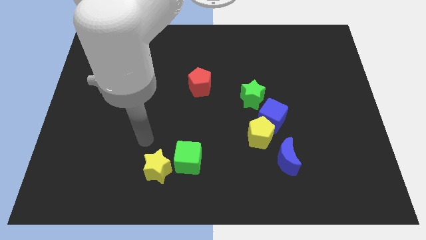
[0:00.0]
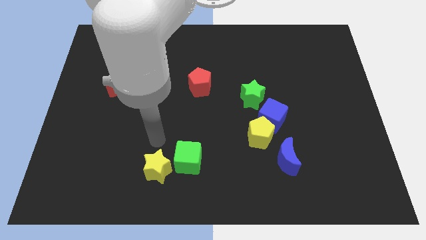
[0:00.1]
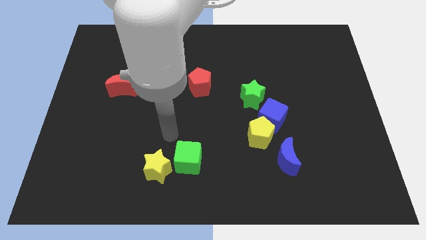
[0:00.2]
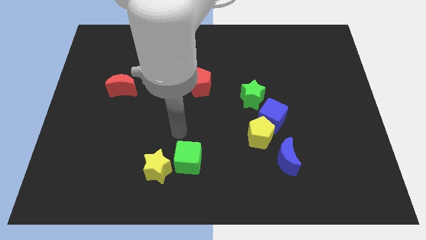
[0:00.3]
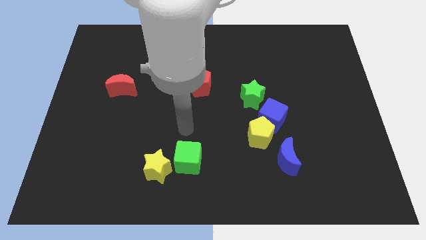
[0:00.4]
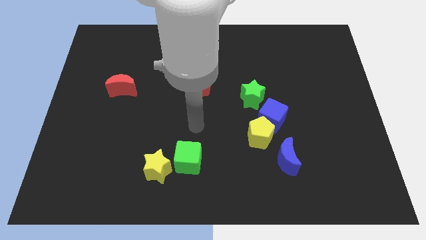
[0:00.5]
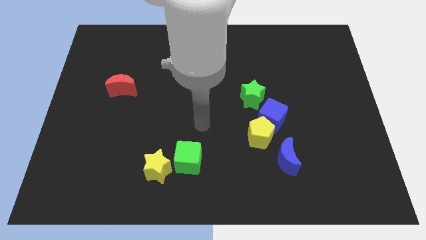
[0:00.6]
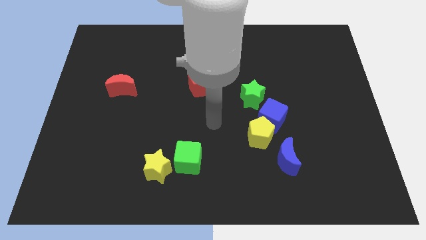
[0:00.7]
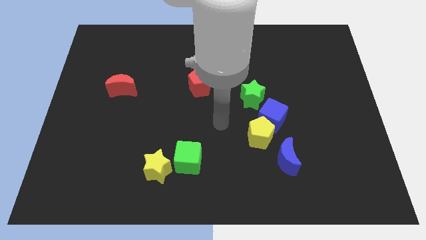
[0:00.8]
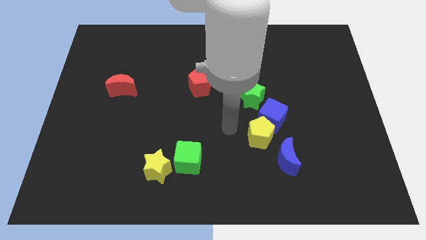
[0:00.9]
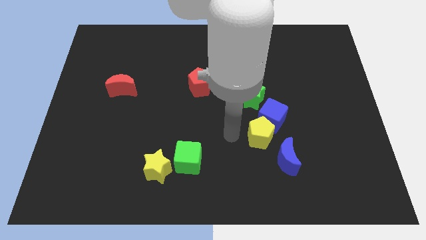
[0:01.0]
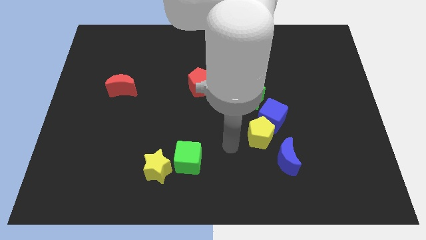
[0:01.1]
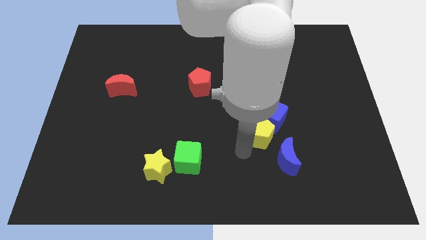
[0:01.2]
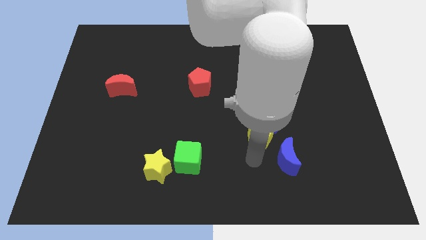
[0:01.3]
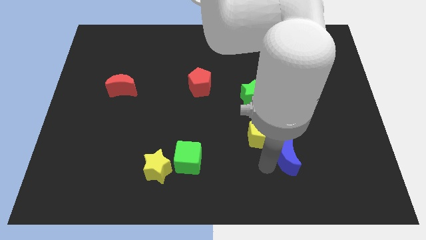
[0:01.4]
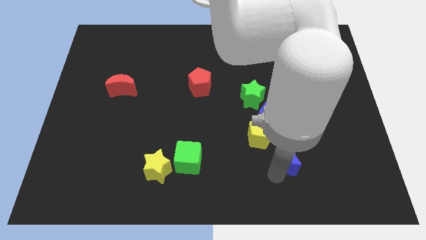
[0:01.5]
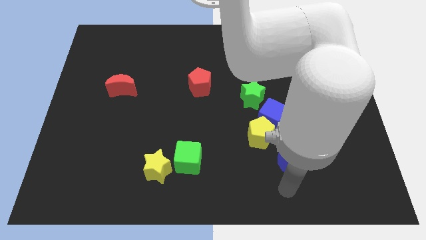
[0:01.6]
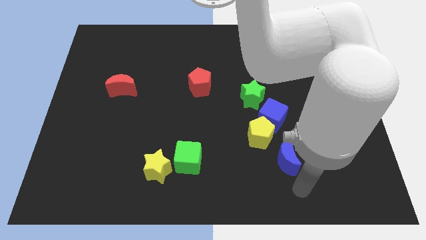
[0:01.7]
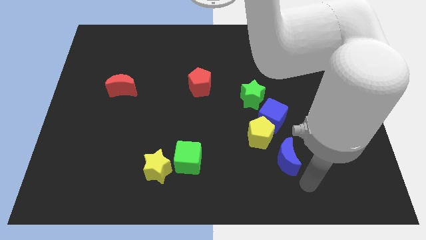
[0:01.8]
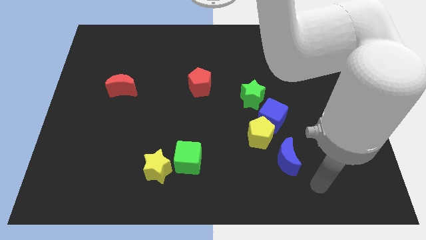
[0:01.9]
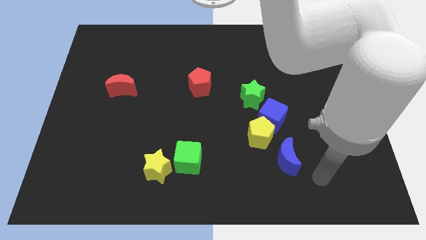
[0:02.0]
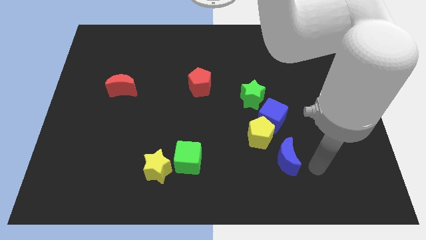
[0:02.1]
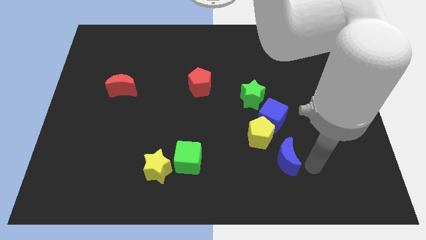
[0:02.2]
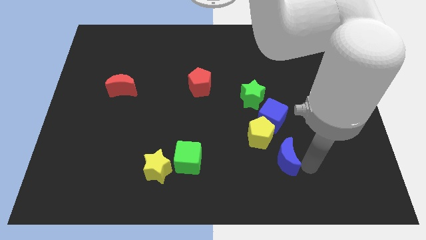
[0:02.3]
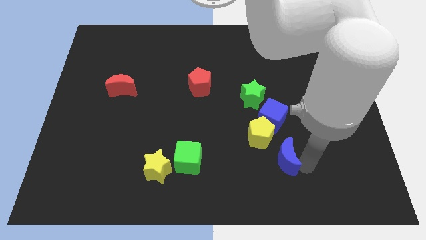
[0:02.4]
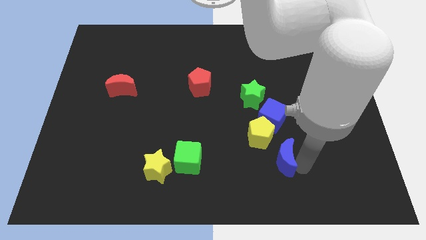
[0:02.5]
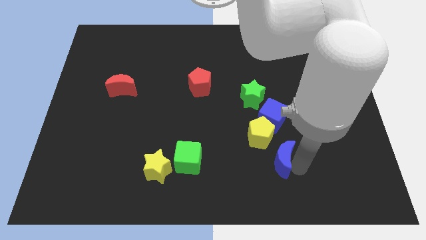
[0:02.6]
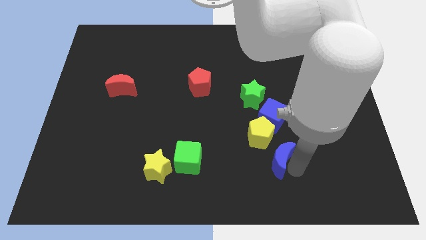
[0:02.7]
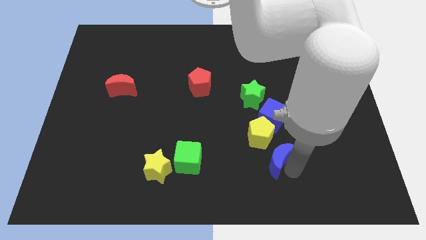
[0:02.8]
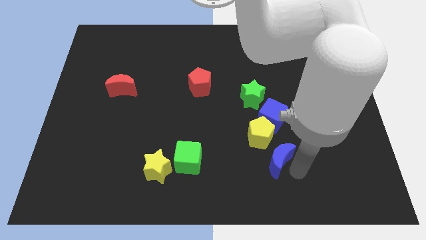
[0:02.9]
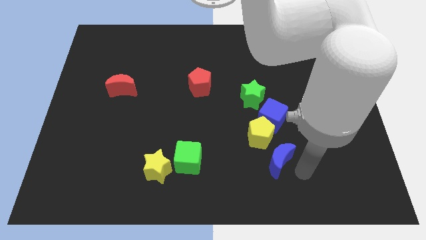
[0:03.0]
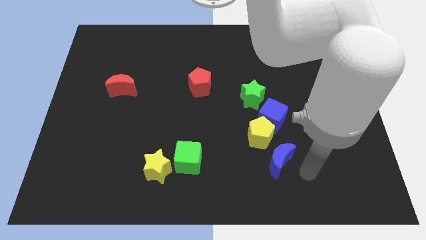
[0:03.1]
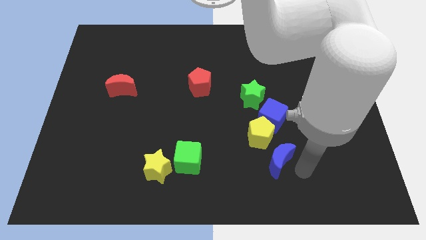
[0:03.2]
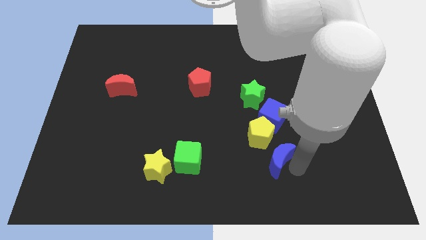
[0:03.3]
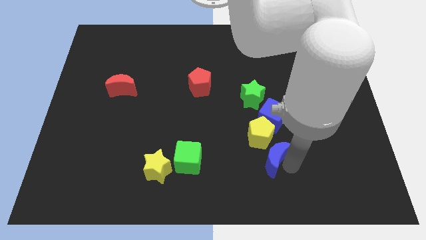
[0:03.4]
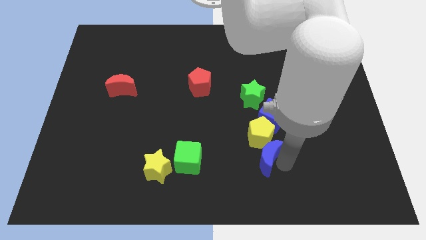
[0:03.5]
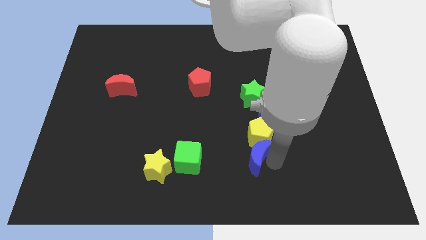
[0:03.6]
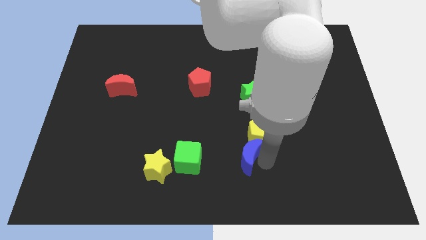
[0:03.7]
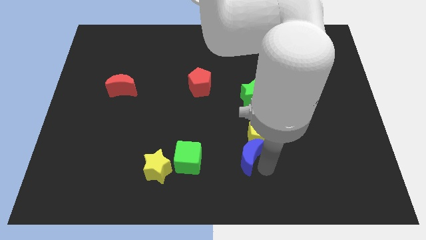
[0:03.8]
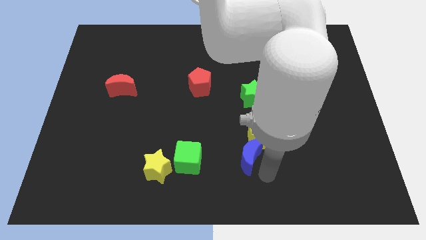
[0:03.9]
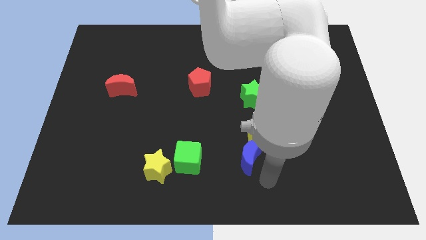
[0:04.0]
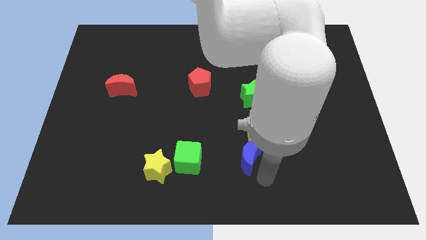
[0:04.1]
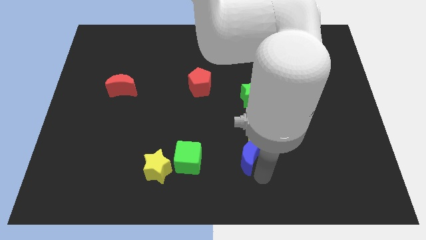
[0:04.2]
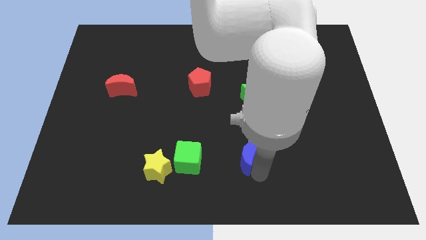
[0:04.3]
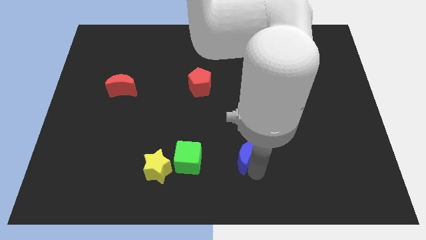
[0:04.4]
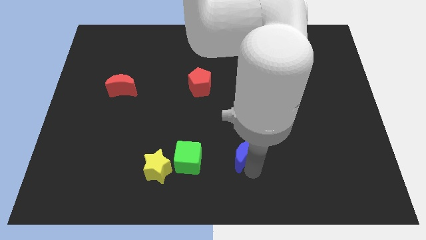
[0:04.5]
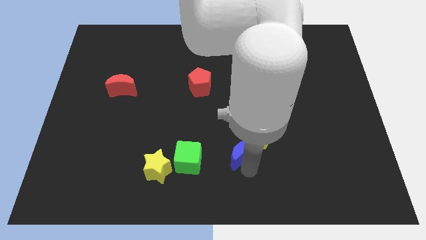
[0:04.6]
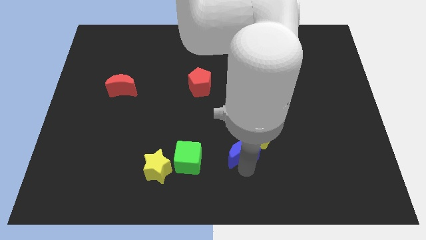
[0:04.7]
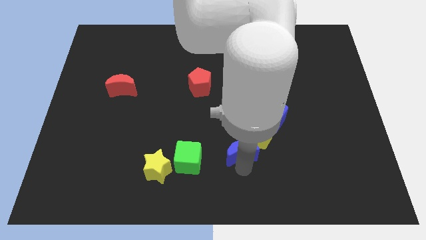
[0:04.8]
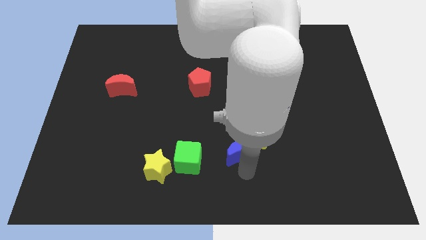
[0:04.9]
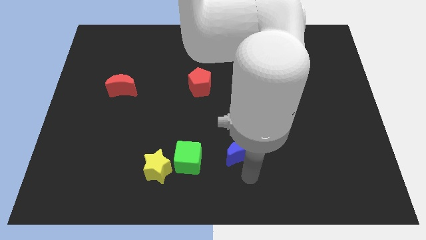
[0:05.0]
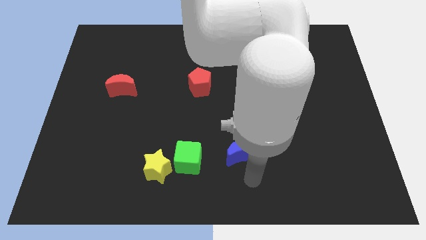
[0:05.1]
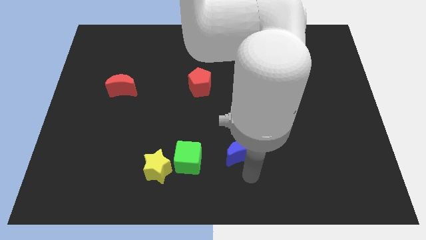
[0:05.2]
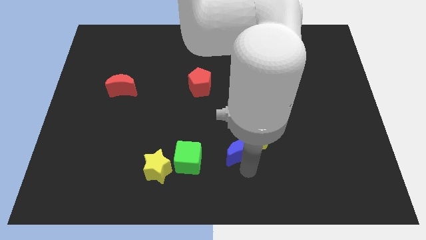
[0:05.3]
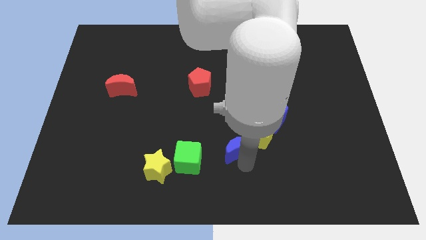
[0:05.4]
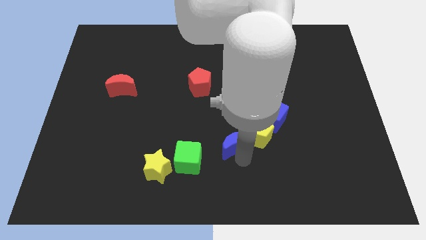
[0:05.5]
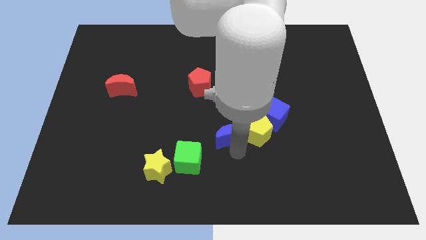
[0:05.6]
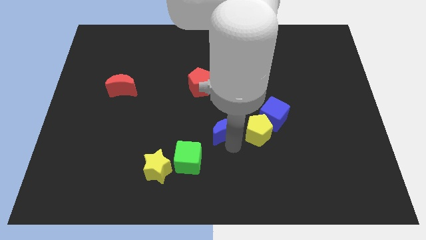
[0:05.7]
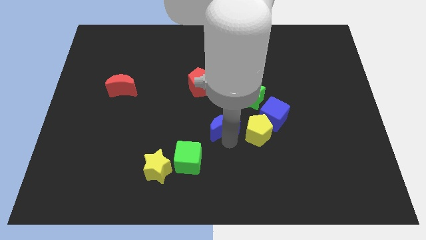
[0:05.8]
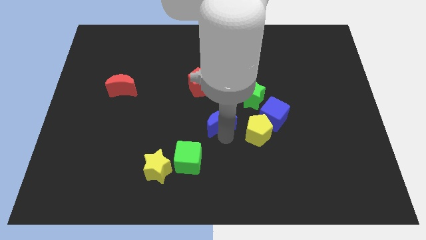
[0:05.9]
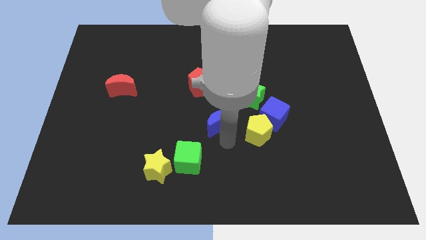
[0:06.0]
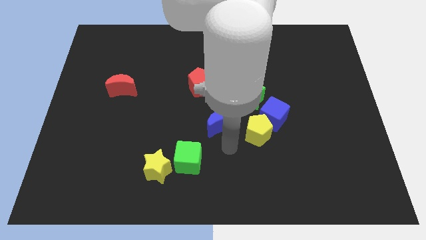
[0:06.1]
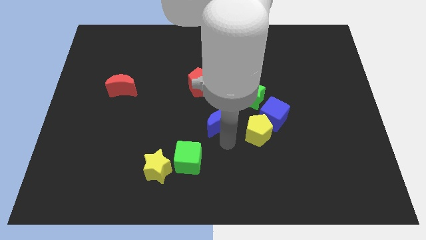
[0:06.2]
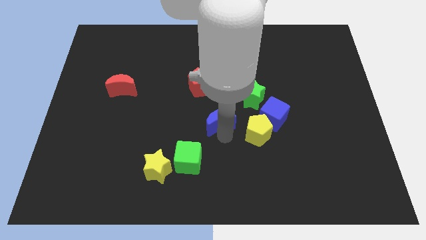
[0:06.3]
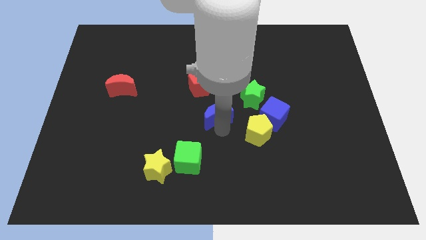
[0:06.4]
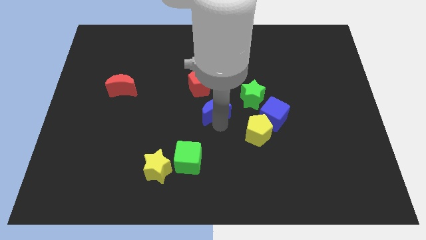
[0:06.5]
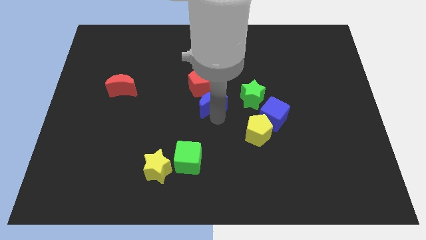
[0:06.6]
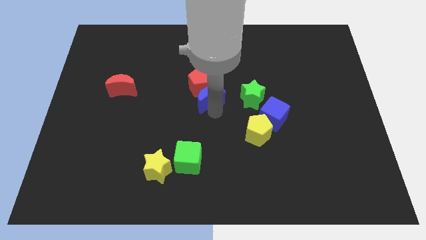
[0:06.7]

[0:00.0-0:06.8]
push the blue moon to the red pentagon
